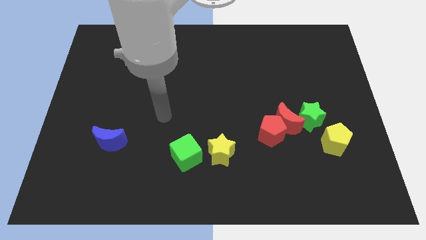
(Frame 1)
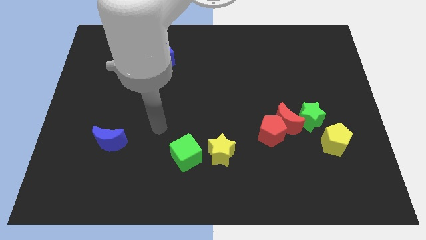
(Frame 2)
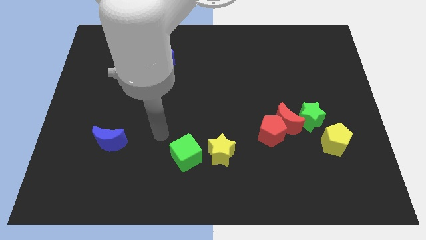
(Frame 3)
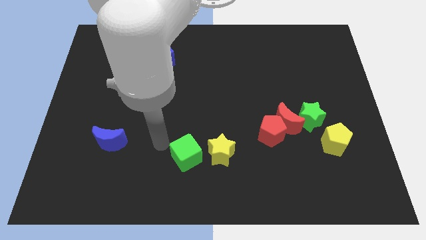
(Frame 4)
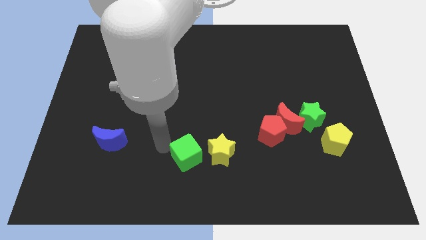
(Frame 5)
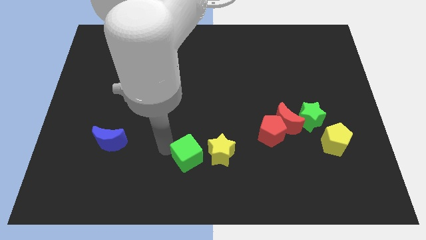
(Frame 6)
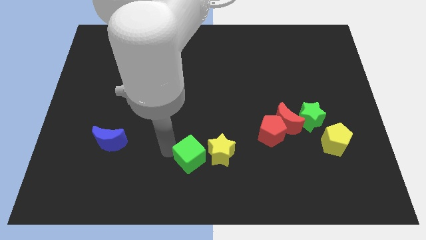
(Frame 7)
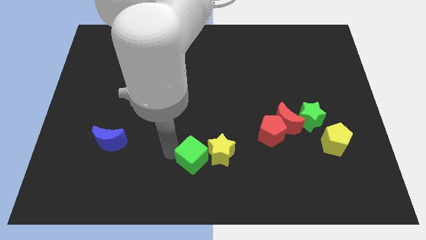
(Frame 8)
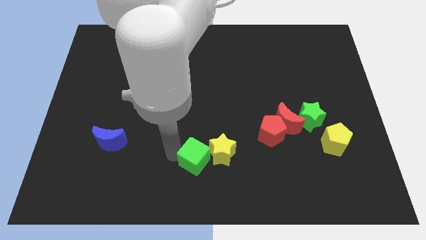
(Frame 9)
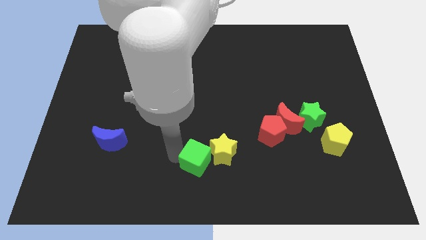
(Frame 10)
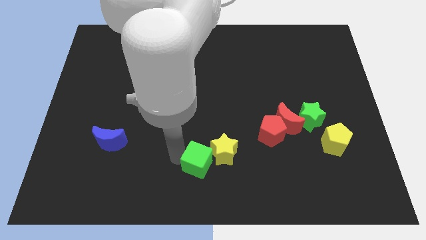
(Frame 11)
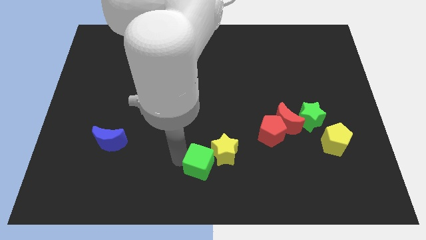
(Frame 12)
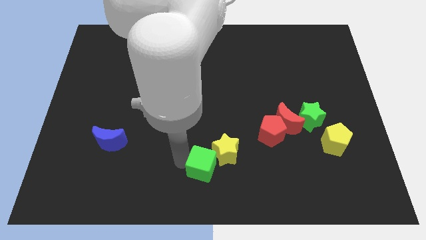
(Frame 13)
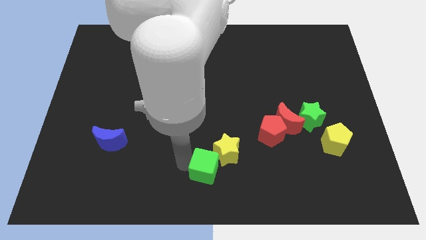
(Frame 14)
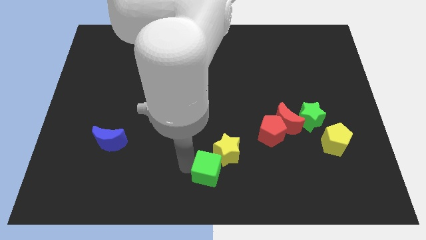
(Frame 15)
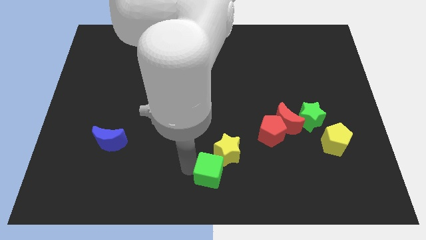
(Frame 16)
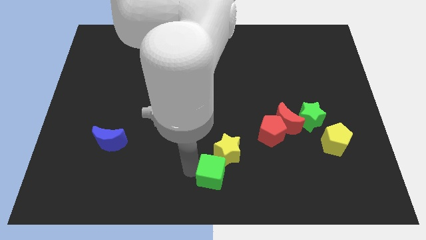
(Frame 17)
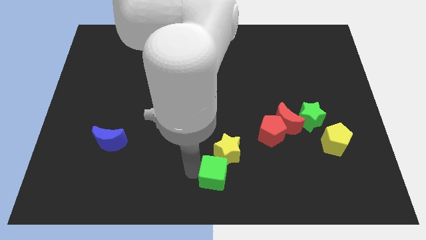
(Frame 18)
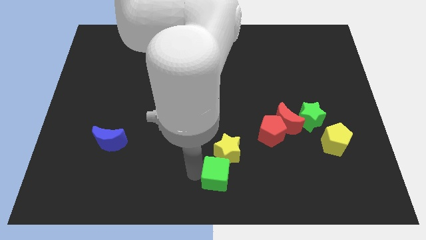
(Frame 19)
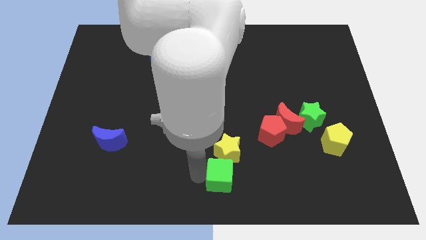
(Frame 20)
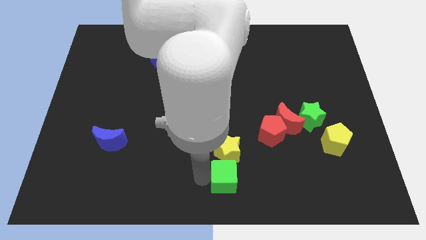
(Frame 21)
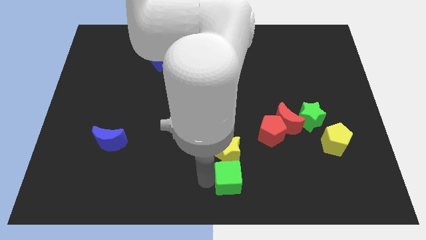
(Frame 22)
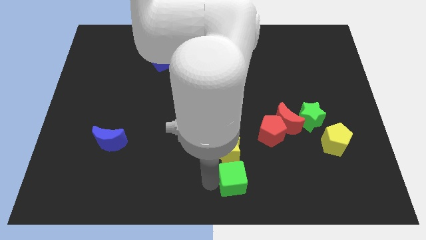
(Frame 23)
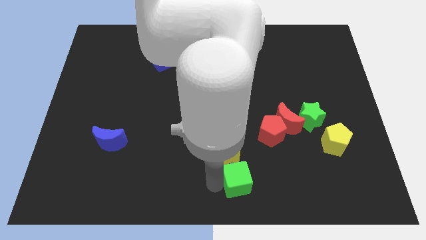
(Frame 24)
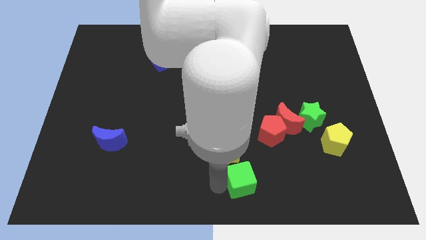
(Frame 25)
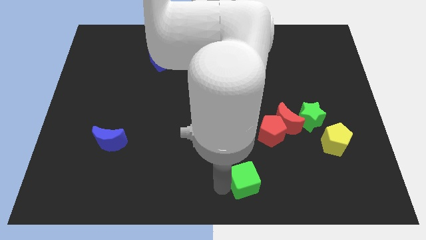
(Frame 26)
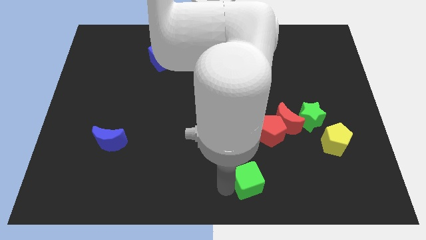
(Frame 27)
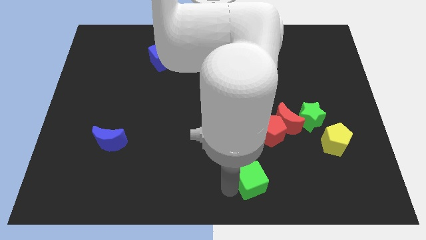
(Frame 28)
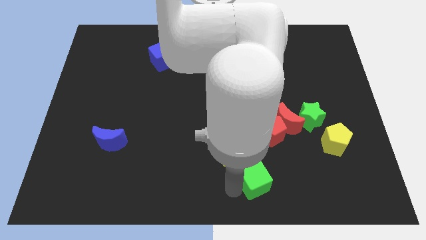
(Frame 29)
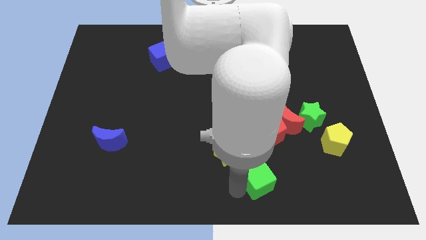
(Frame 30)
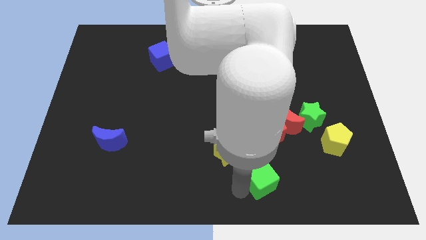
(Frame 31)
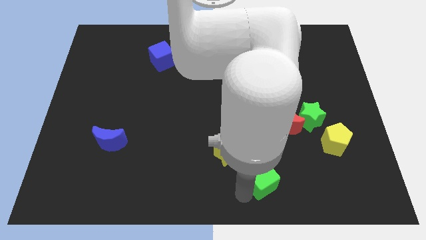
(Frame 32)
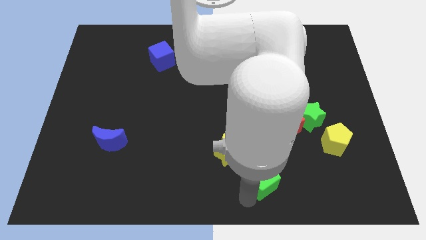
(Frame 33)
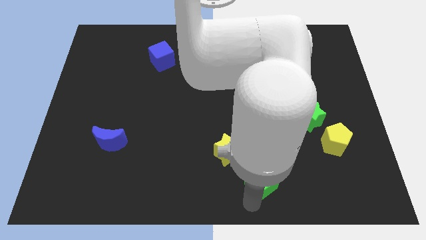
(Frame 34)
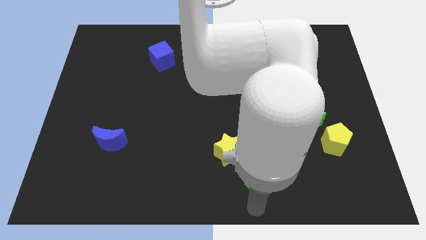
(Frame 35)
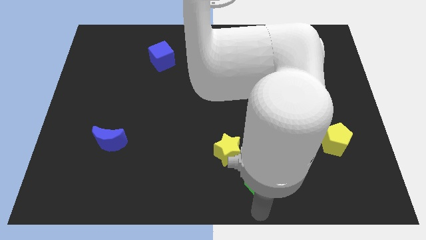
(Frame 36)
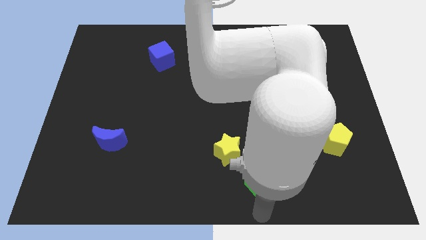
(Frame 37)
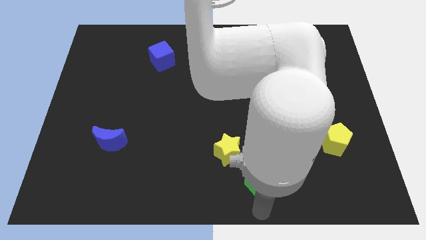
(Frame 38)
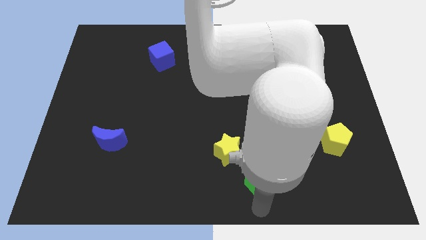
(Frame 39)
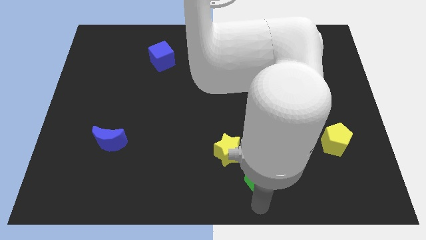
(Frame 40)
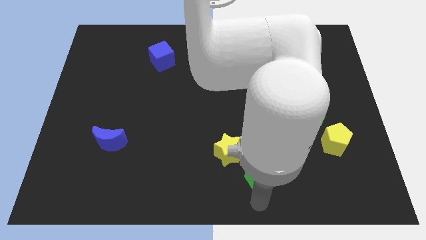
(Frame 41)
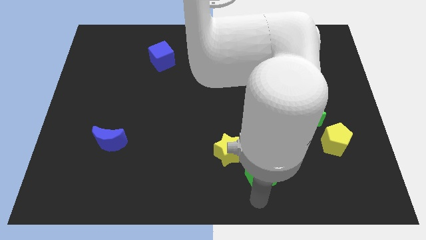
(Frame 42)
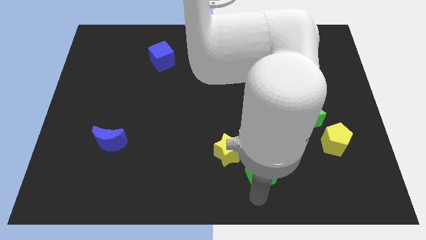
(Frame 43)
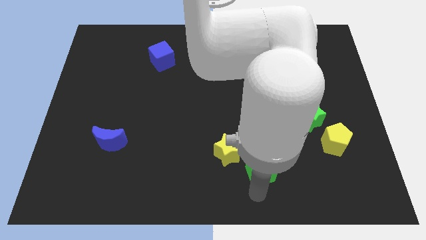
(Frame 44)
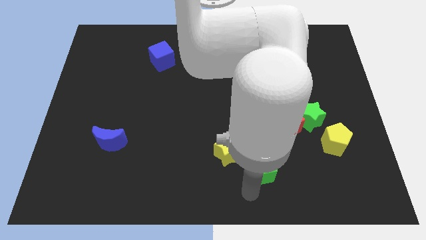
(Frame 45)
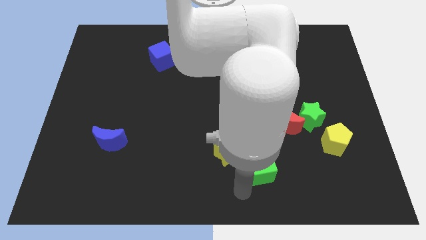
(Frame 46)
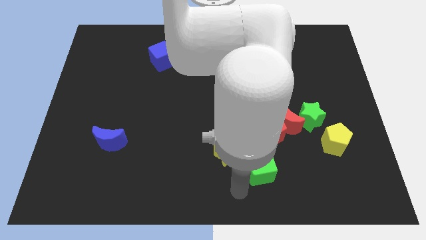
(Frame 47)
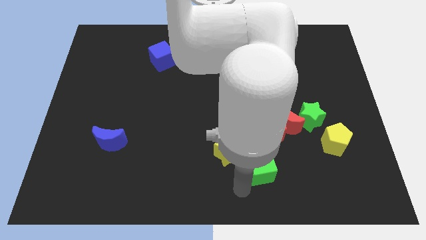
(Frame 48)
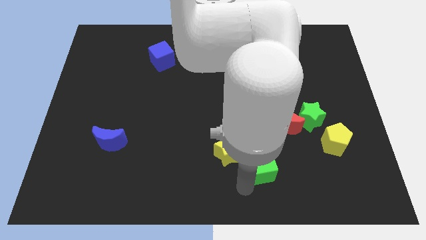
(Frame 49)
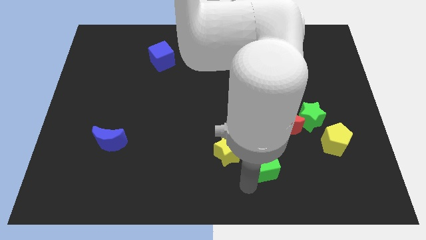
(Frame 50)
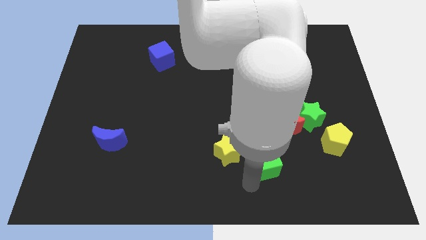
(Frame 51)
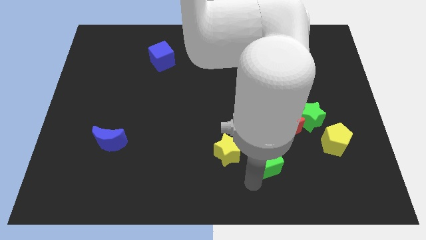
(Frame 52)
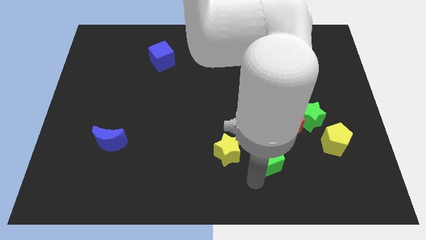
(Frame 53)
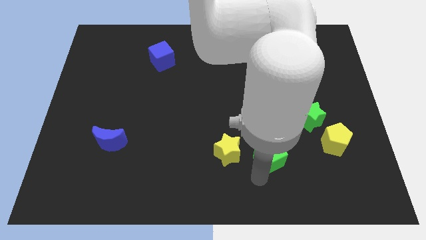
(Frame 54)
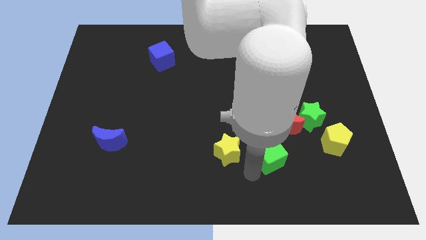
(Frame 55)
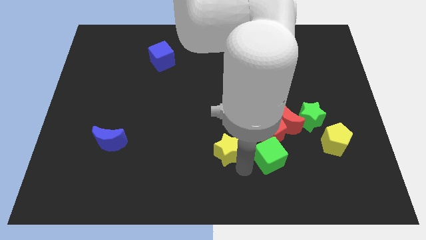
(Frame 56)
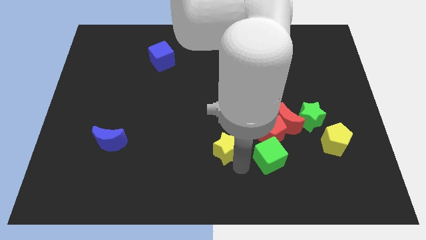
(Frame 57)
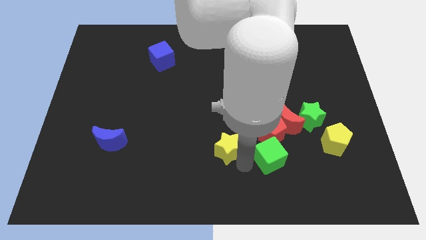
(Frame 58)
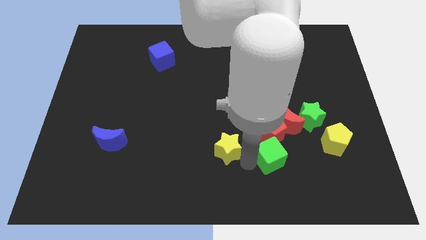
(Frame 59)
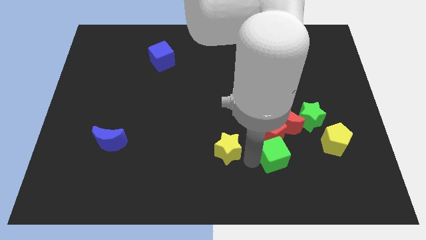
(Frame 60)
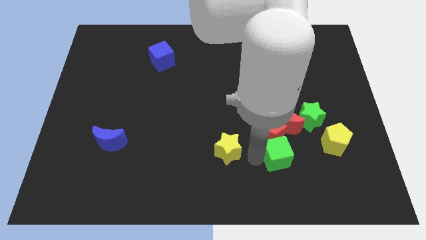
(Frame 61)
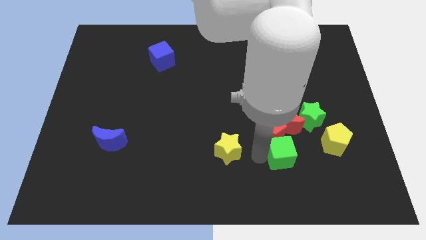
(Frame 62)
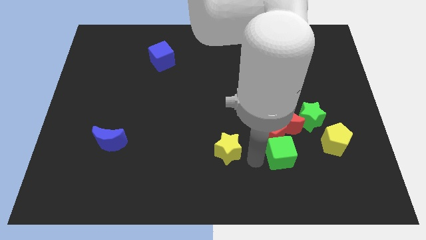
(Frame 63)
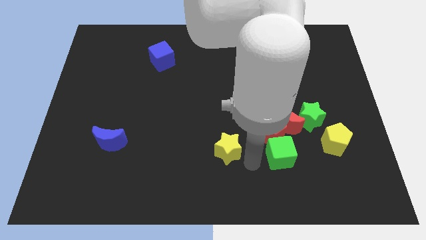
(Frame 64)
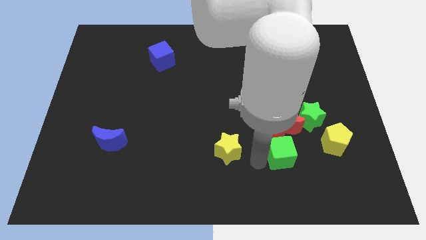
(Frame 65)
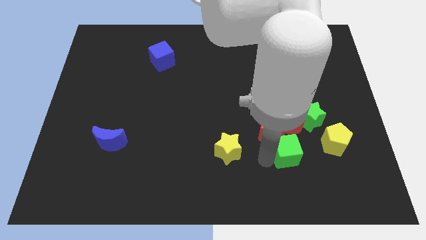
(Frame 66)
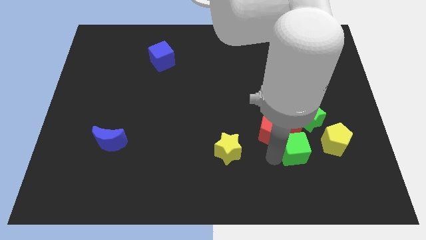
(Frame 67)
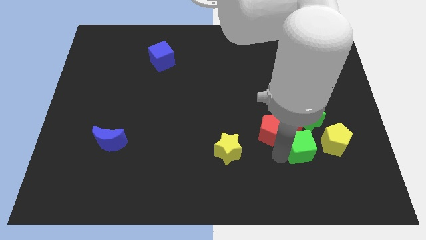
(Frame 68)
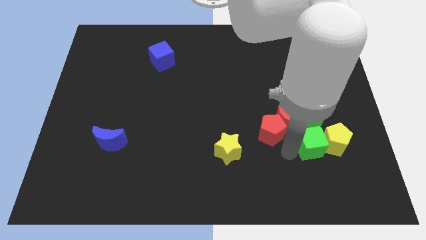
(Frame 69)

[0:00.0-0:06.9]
push the green cube next to the yellow pentagon

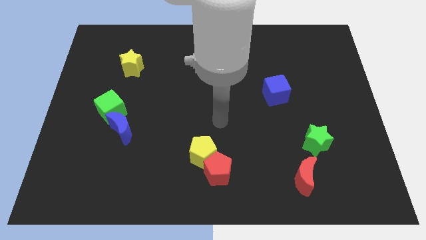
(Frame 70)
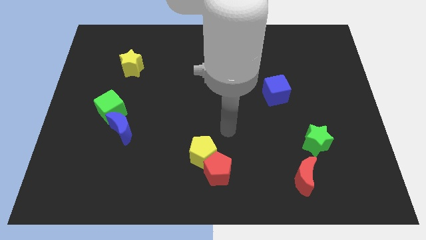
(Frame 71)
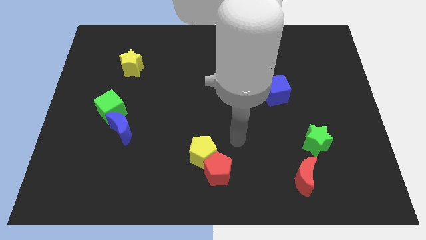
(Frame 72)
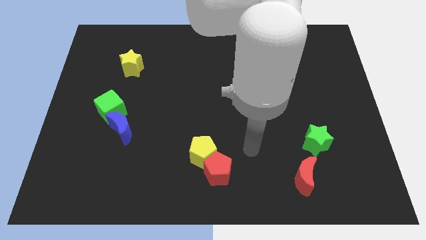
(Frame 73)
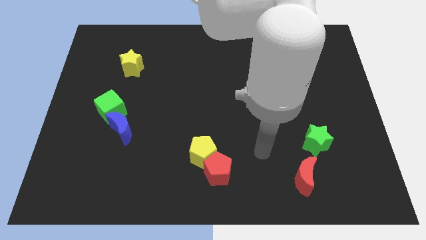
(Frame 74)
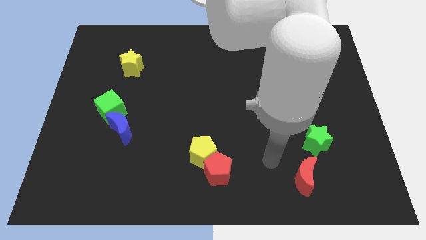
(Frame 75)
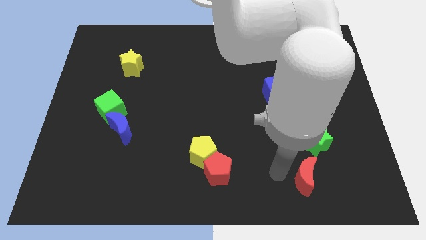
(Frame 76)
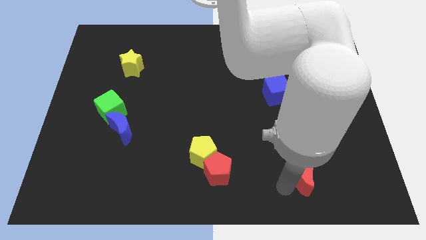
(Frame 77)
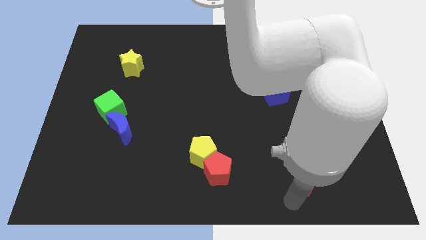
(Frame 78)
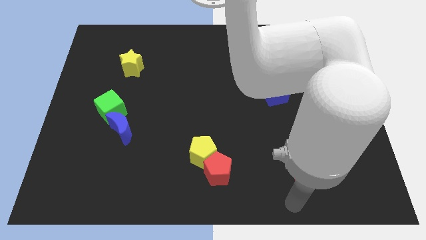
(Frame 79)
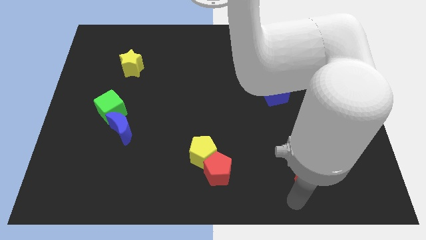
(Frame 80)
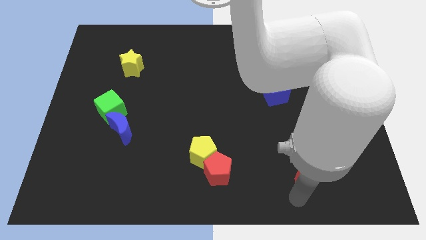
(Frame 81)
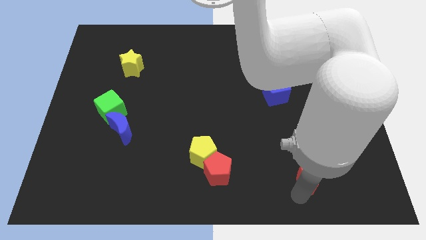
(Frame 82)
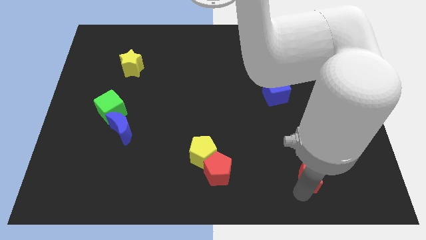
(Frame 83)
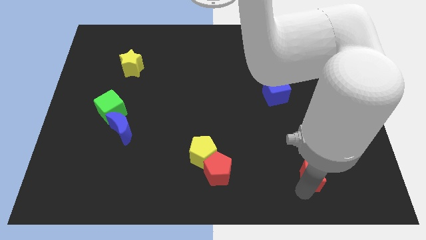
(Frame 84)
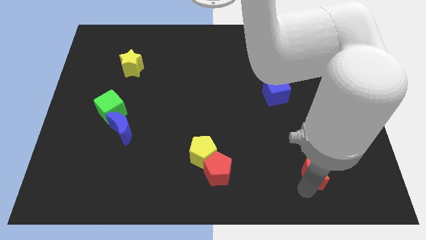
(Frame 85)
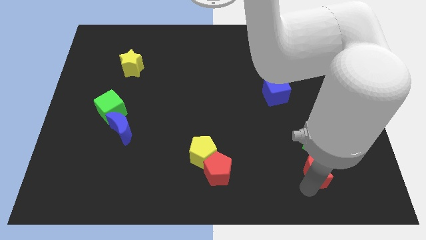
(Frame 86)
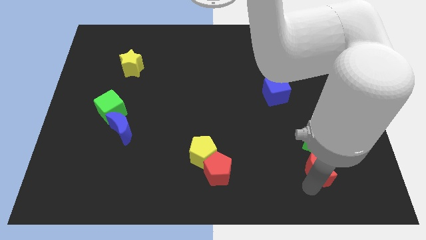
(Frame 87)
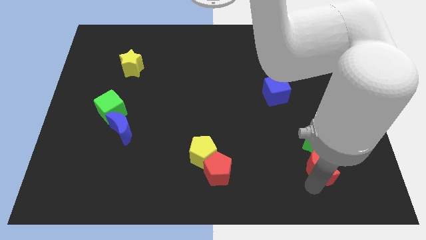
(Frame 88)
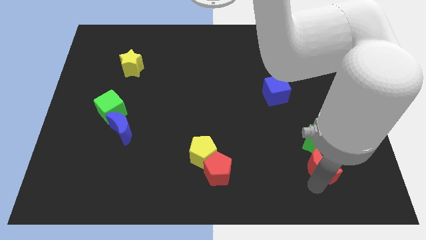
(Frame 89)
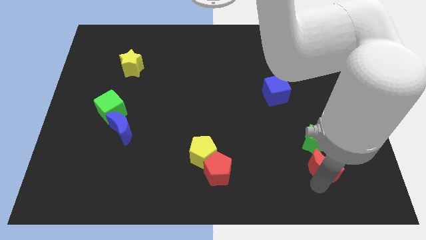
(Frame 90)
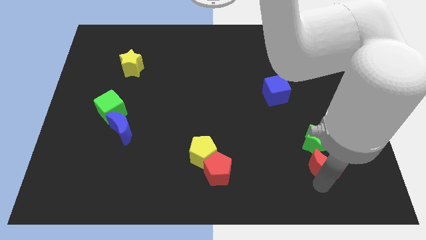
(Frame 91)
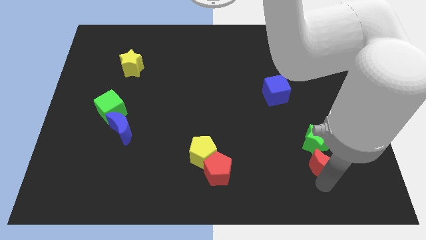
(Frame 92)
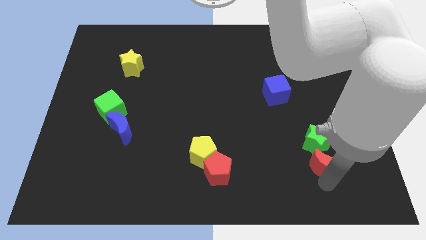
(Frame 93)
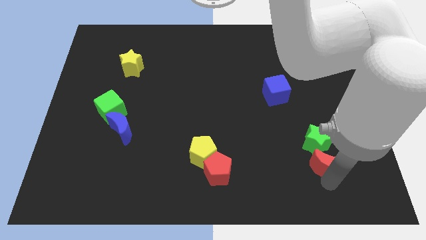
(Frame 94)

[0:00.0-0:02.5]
put the red moon next to the green star
